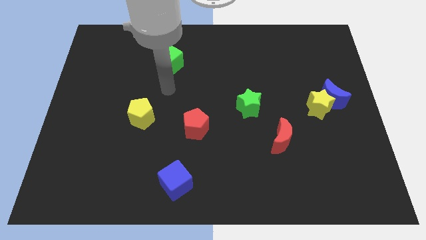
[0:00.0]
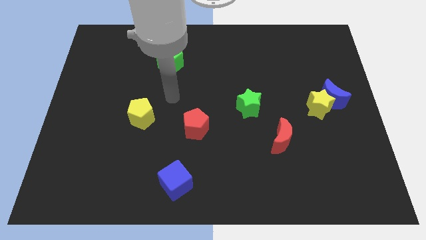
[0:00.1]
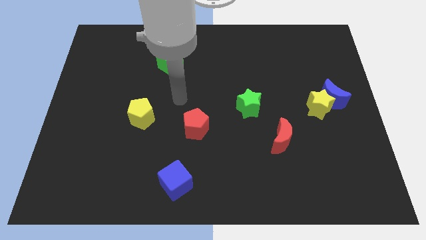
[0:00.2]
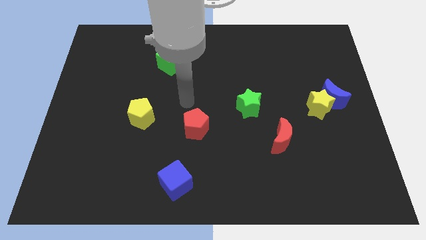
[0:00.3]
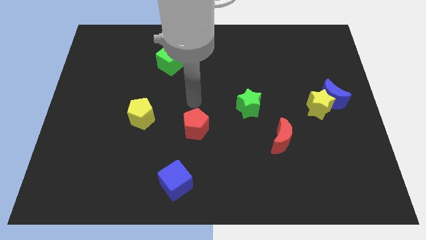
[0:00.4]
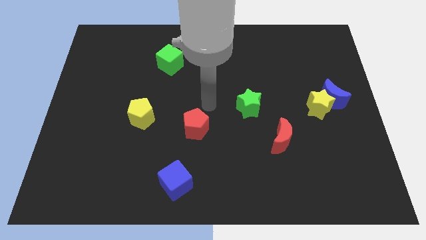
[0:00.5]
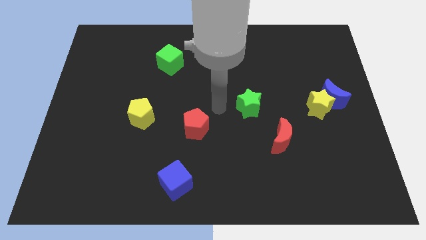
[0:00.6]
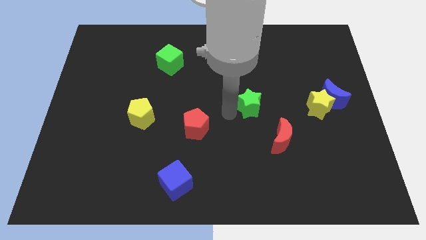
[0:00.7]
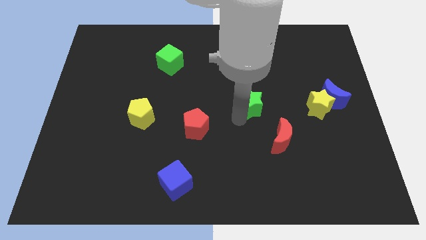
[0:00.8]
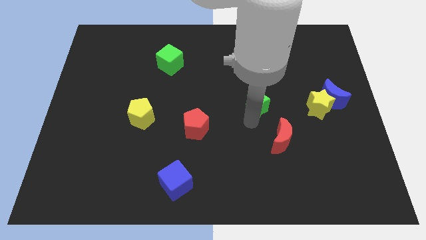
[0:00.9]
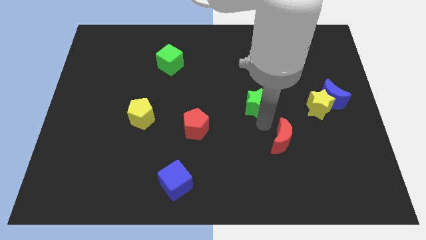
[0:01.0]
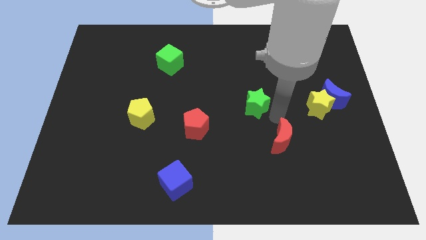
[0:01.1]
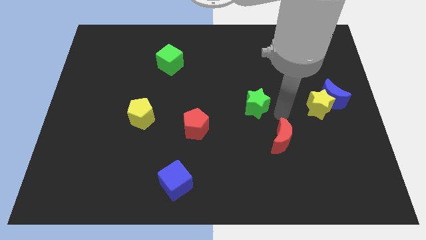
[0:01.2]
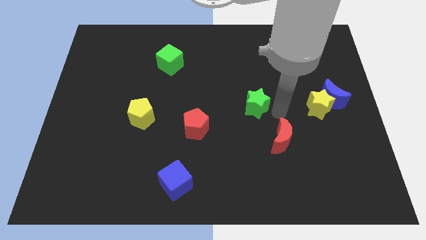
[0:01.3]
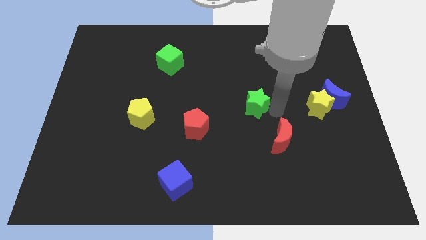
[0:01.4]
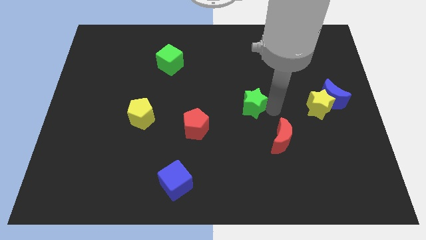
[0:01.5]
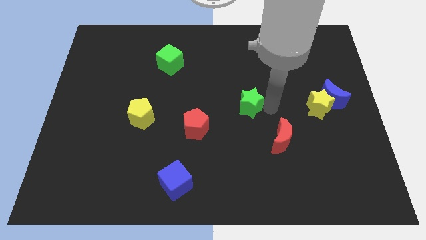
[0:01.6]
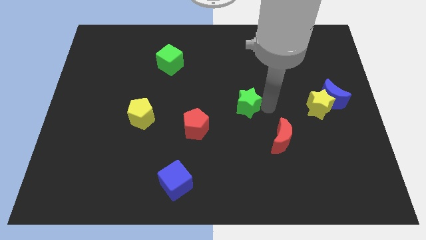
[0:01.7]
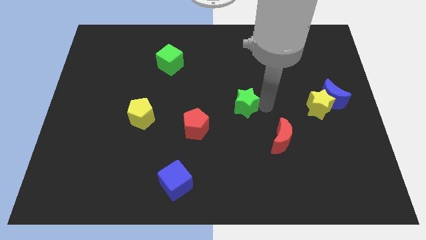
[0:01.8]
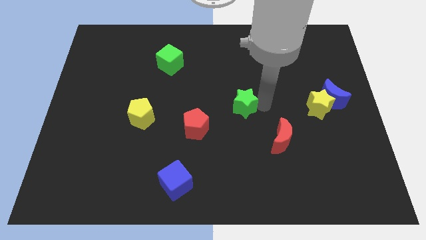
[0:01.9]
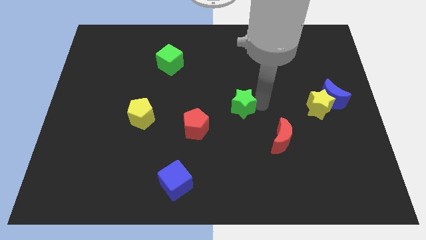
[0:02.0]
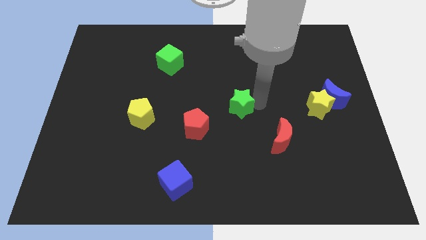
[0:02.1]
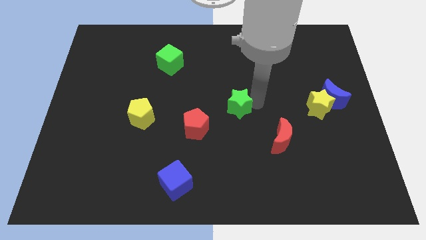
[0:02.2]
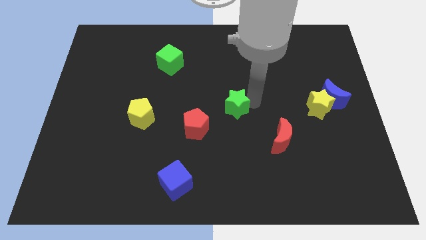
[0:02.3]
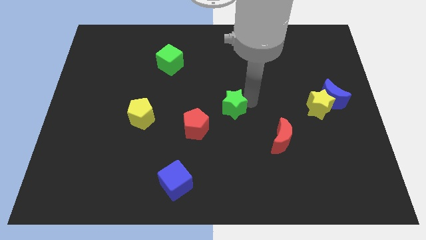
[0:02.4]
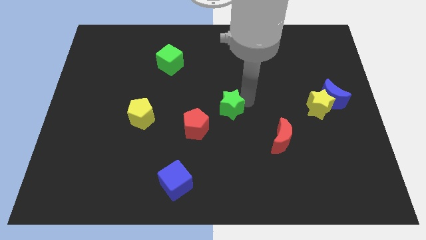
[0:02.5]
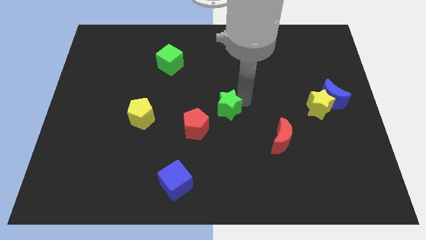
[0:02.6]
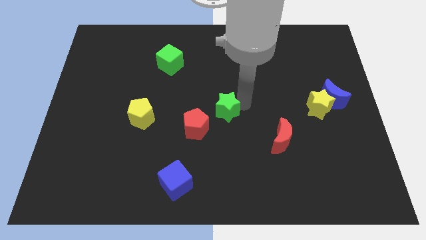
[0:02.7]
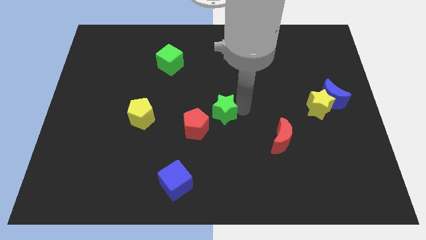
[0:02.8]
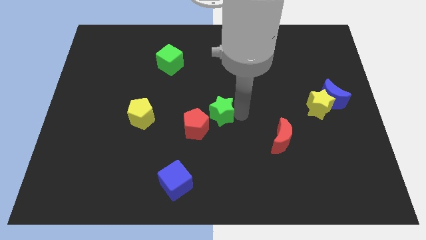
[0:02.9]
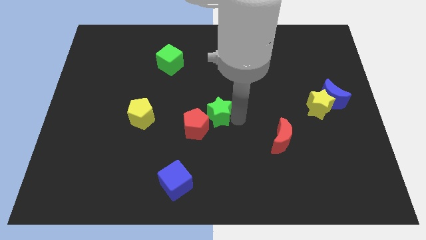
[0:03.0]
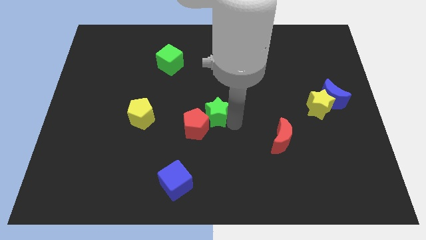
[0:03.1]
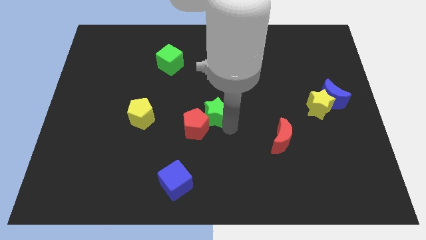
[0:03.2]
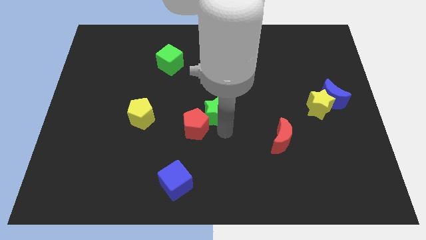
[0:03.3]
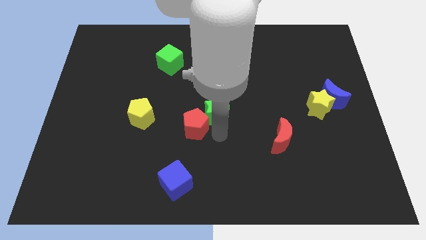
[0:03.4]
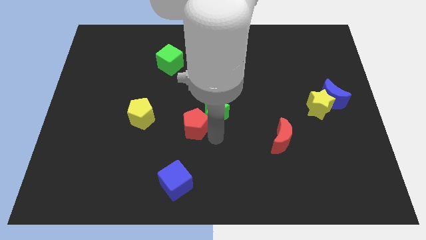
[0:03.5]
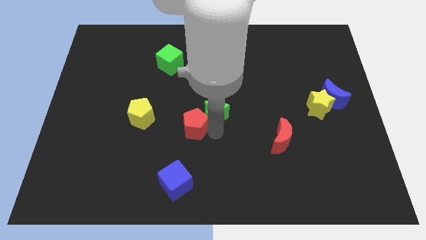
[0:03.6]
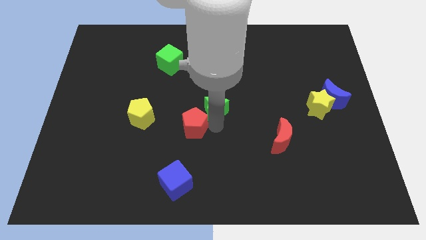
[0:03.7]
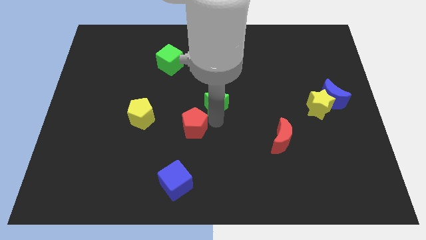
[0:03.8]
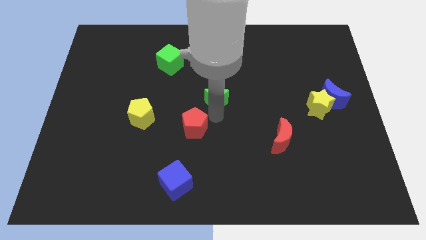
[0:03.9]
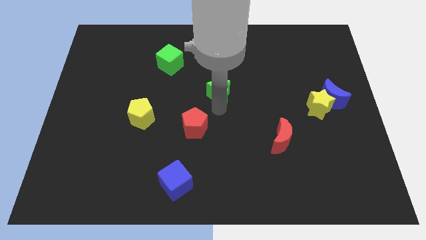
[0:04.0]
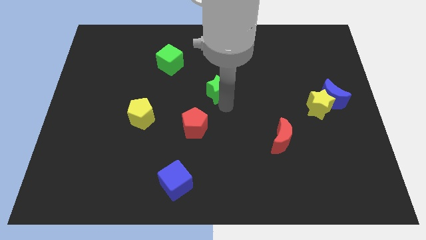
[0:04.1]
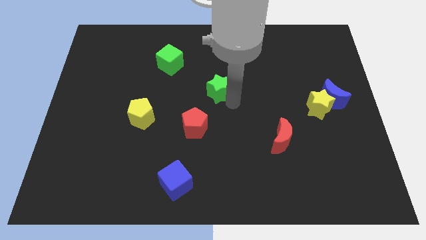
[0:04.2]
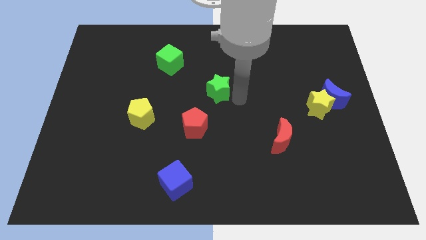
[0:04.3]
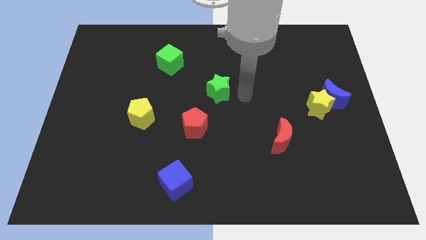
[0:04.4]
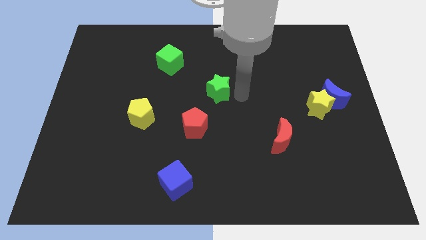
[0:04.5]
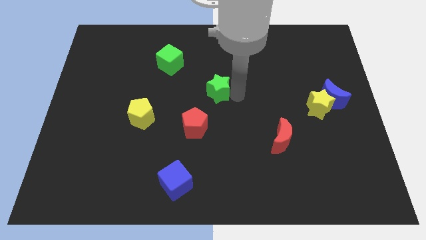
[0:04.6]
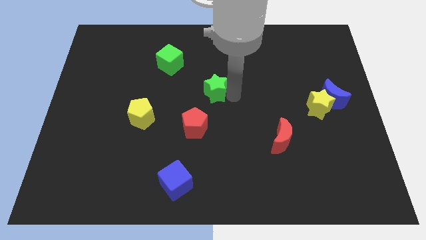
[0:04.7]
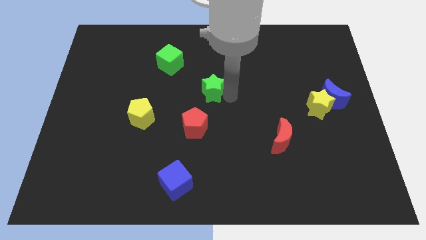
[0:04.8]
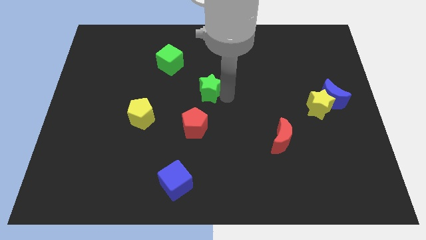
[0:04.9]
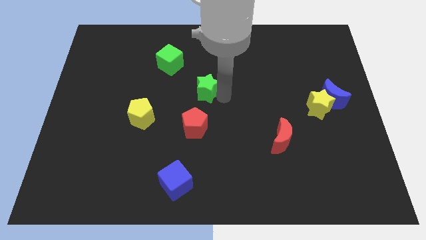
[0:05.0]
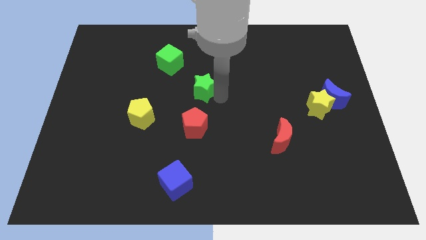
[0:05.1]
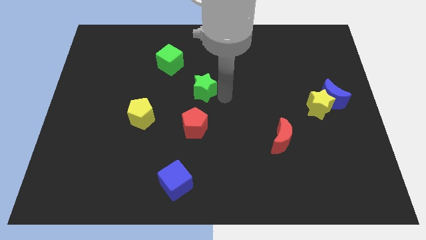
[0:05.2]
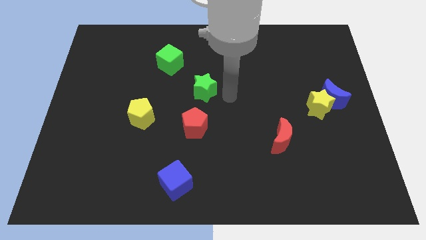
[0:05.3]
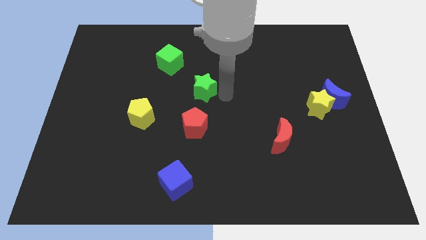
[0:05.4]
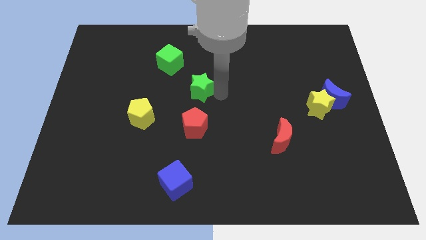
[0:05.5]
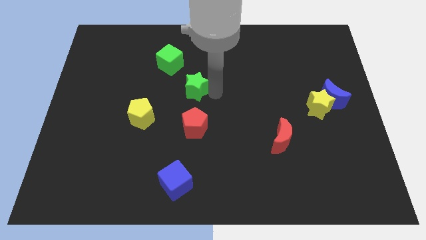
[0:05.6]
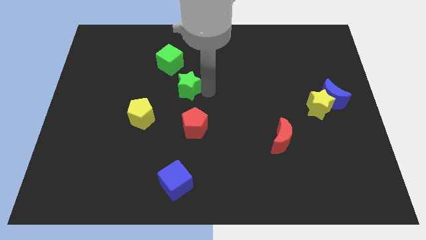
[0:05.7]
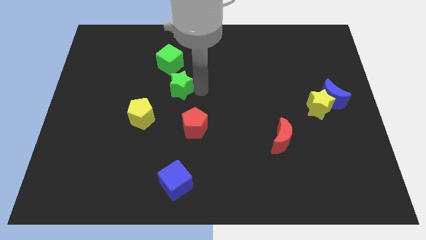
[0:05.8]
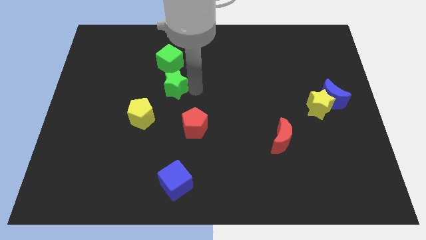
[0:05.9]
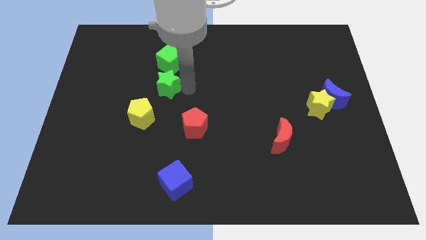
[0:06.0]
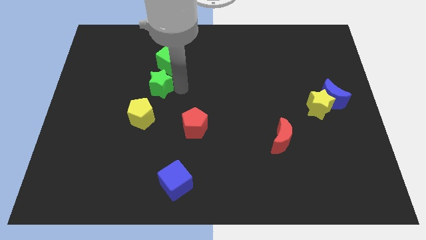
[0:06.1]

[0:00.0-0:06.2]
slide the green star to the top side of the yellow pentagon

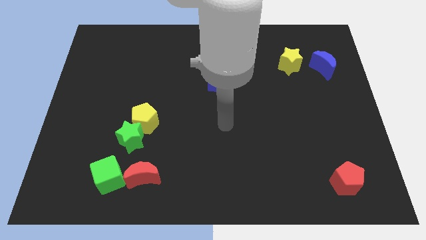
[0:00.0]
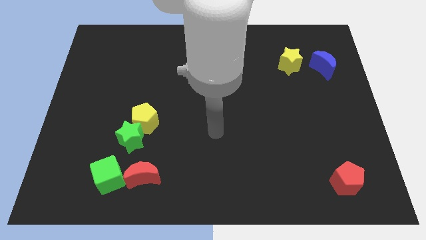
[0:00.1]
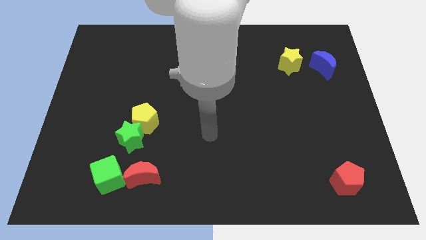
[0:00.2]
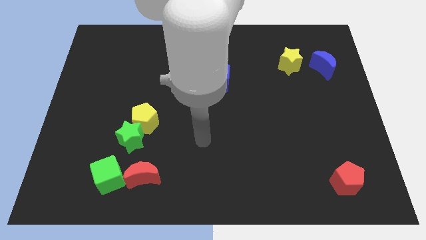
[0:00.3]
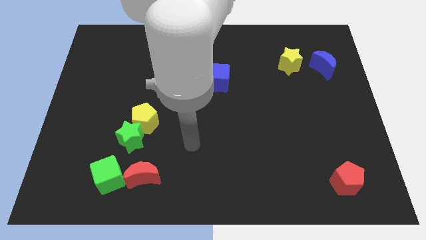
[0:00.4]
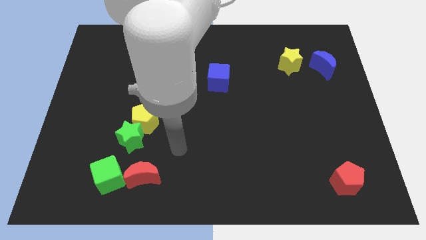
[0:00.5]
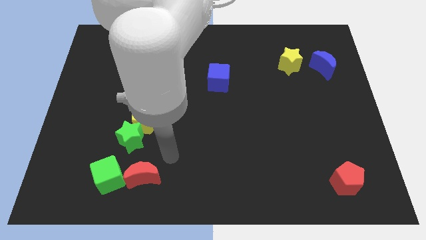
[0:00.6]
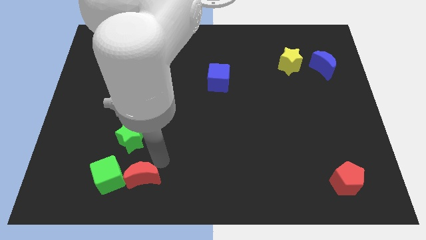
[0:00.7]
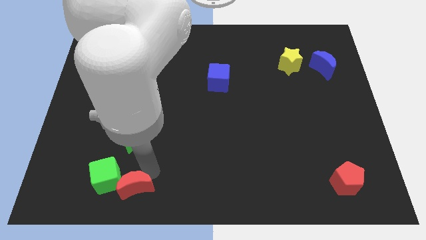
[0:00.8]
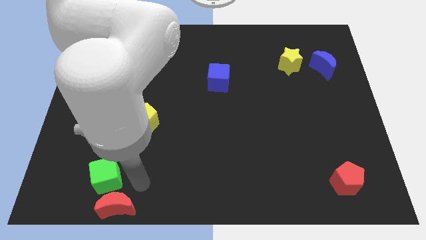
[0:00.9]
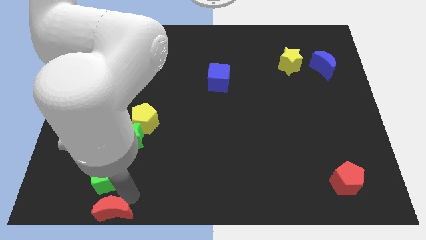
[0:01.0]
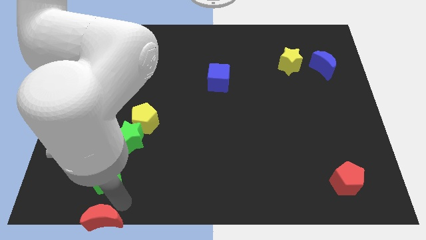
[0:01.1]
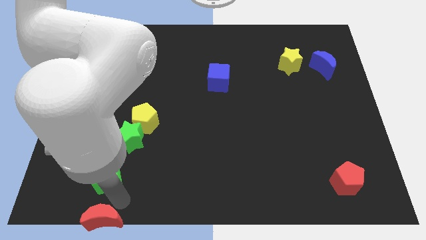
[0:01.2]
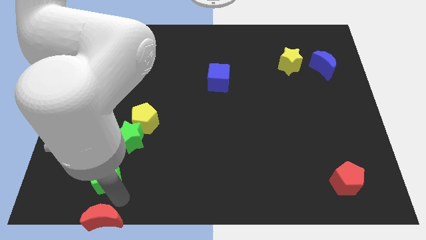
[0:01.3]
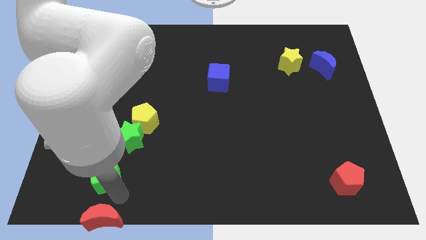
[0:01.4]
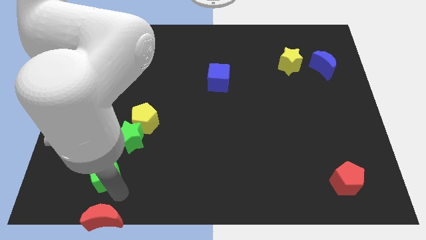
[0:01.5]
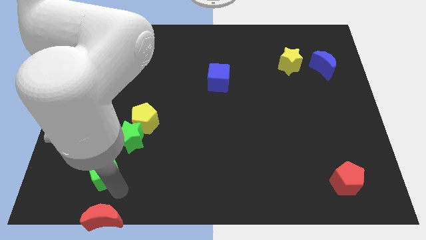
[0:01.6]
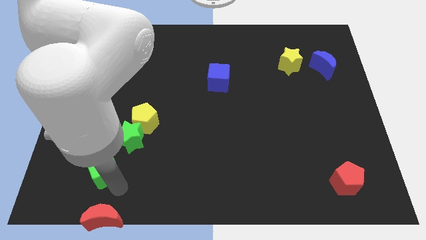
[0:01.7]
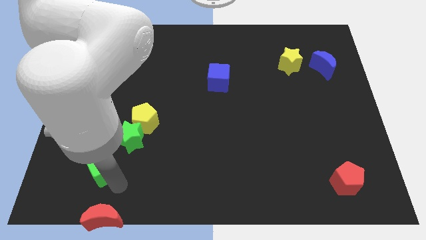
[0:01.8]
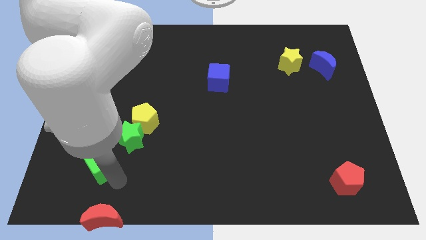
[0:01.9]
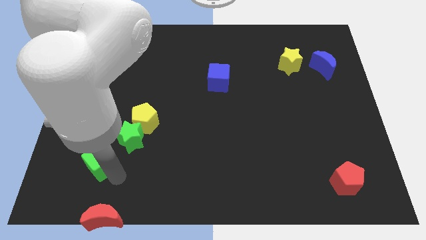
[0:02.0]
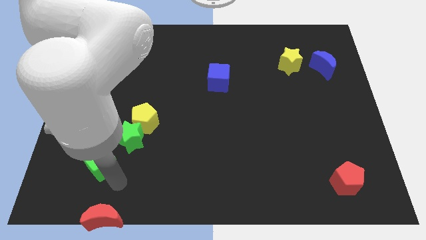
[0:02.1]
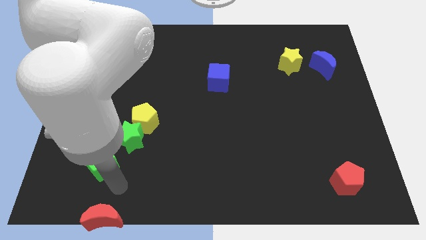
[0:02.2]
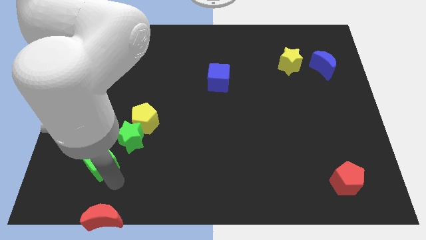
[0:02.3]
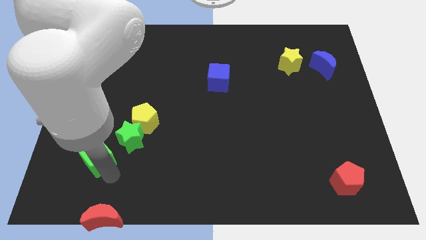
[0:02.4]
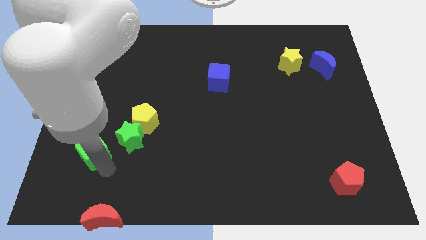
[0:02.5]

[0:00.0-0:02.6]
push the green cube left of the green star
